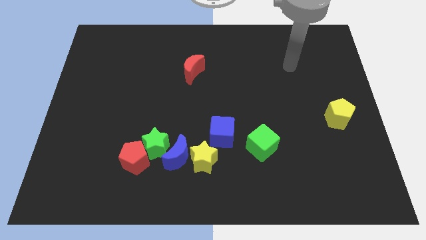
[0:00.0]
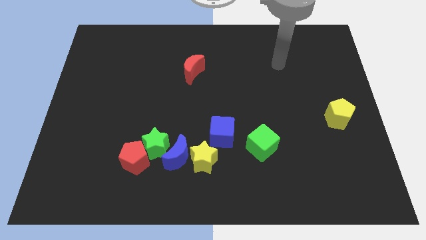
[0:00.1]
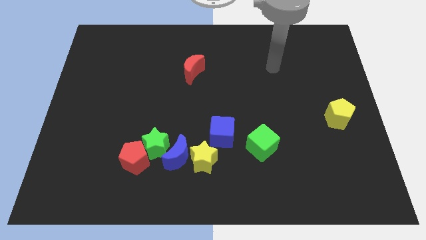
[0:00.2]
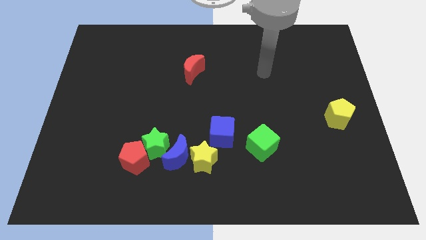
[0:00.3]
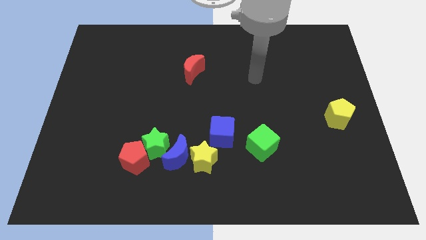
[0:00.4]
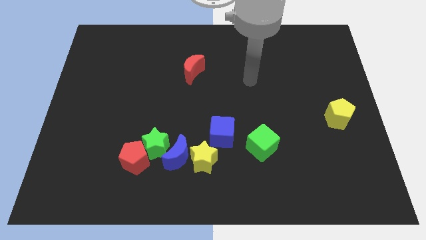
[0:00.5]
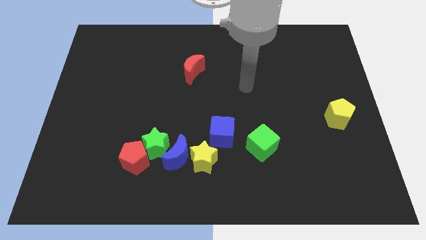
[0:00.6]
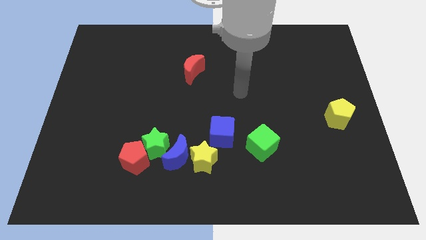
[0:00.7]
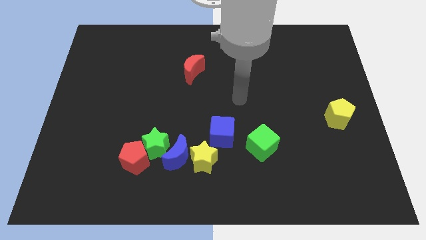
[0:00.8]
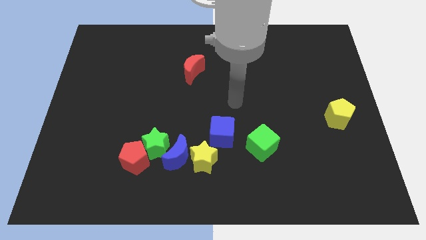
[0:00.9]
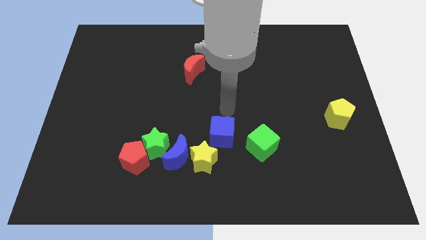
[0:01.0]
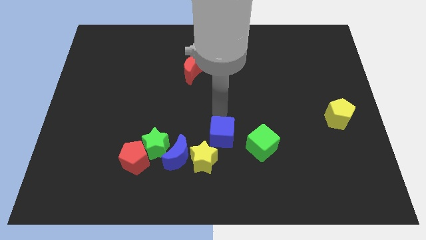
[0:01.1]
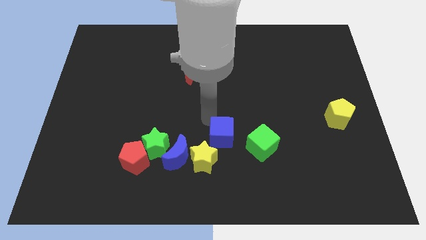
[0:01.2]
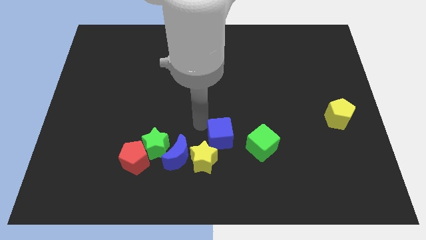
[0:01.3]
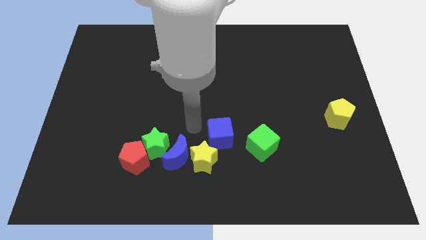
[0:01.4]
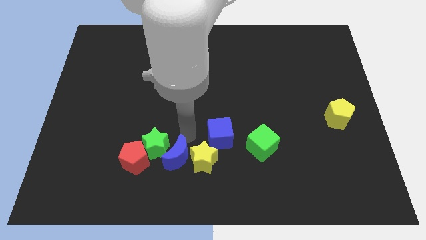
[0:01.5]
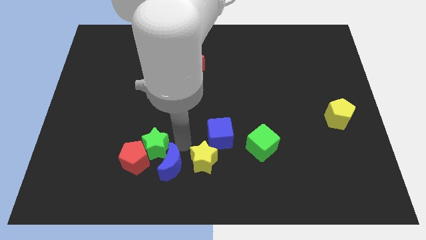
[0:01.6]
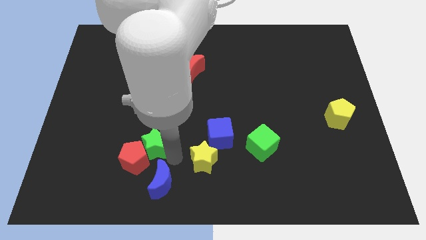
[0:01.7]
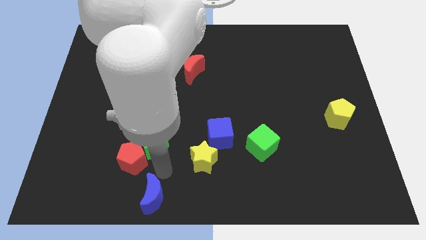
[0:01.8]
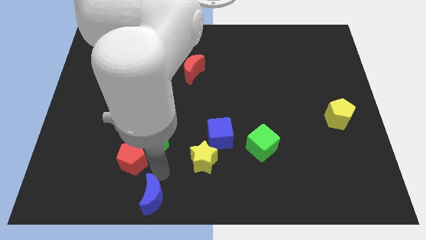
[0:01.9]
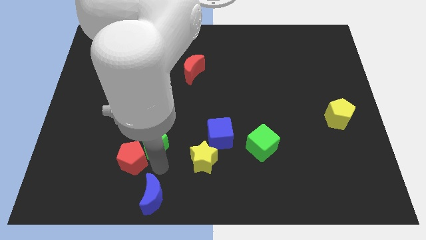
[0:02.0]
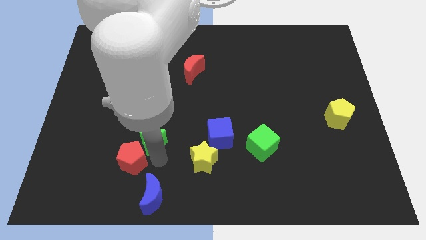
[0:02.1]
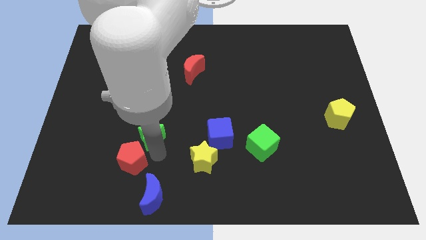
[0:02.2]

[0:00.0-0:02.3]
separate the green star from the blue moon and red pentagon

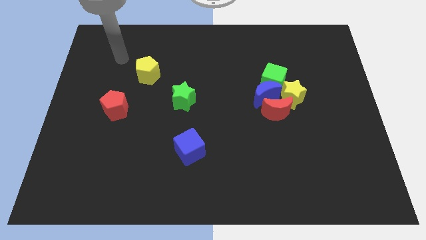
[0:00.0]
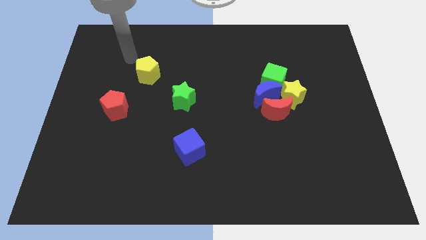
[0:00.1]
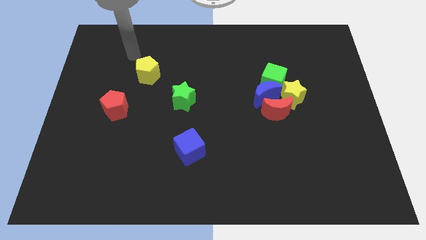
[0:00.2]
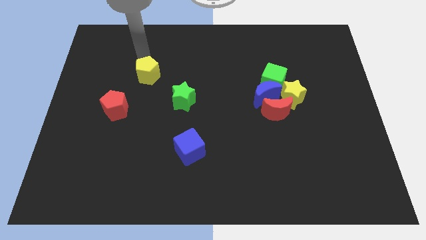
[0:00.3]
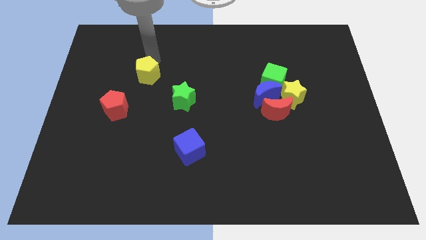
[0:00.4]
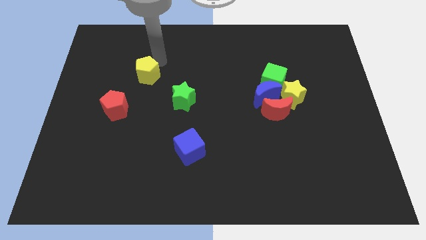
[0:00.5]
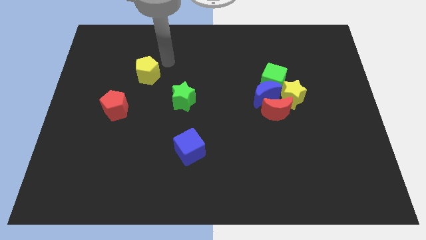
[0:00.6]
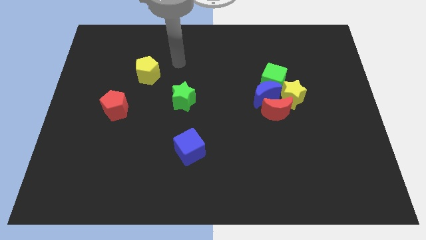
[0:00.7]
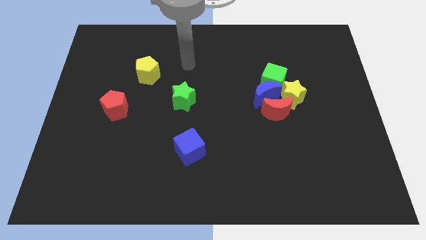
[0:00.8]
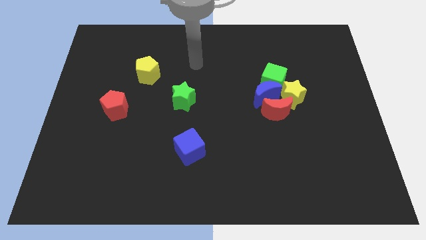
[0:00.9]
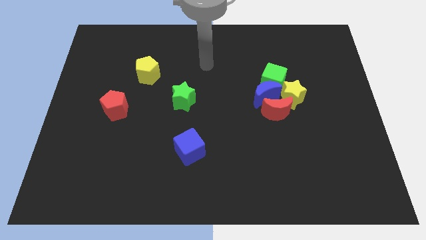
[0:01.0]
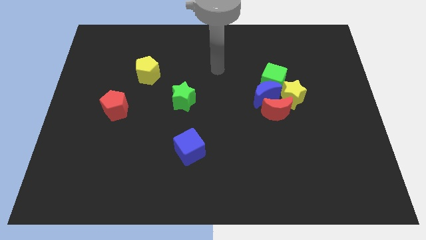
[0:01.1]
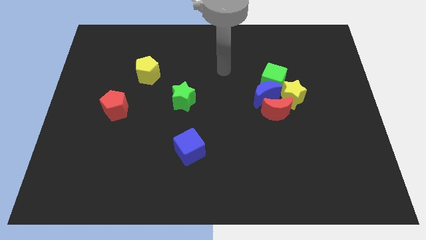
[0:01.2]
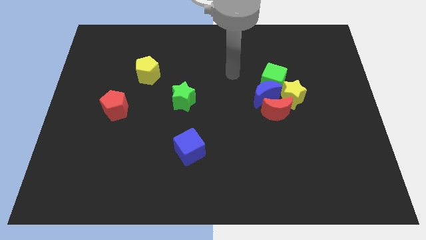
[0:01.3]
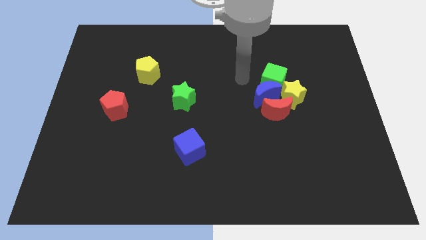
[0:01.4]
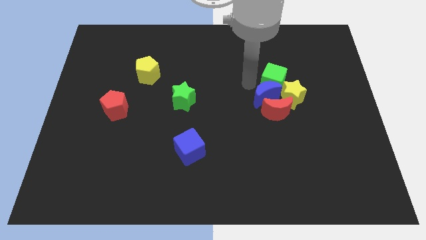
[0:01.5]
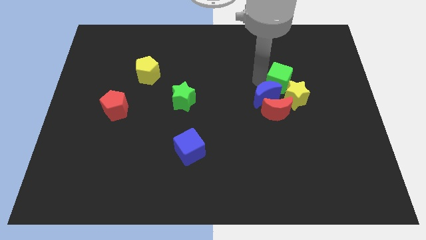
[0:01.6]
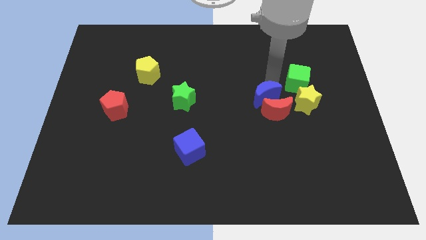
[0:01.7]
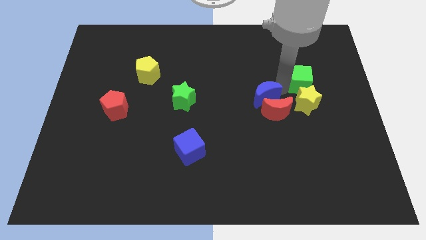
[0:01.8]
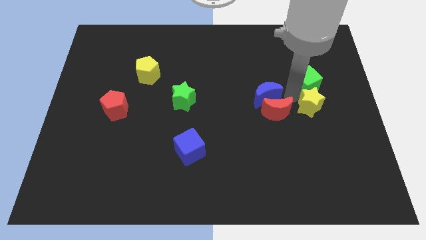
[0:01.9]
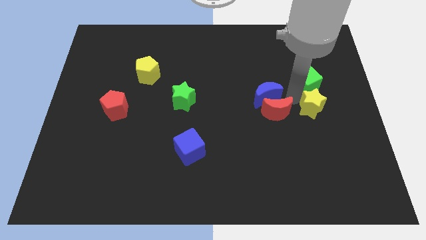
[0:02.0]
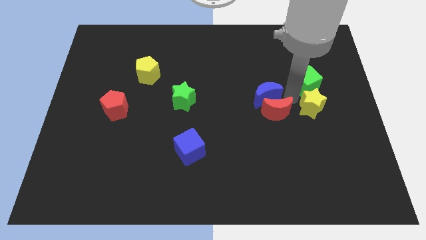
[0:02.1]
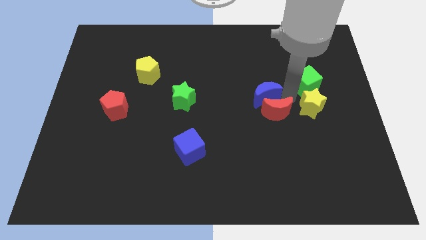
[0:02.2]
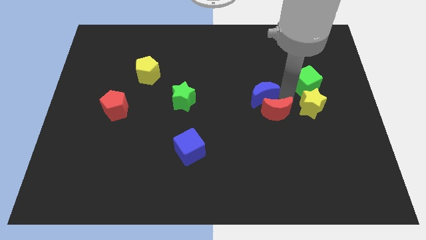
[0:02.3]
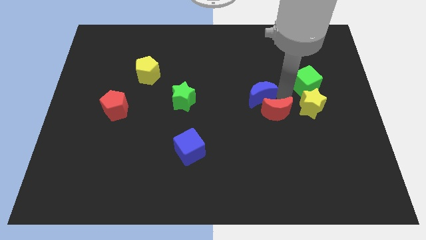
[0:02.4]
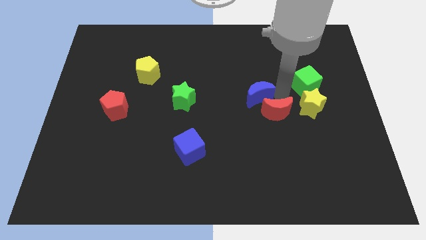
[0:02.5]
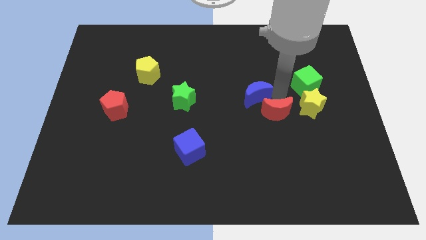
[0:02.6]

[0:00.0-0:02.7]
separate the blue moon from the clump

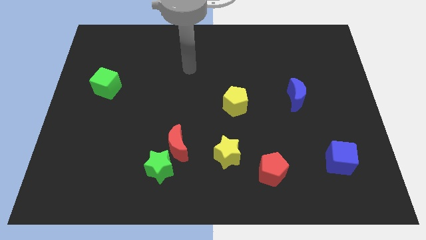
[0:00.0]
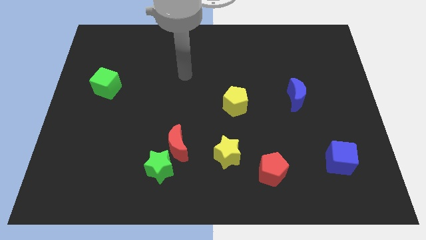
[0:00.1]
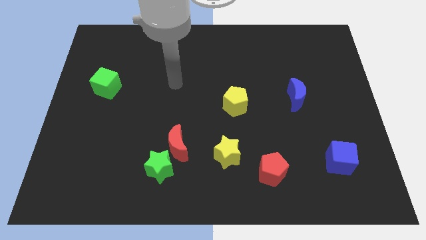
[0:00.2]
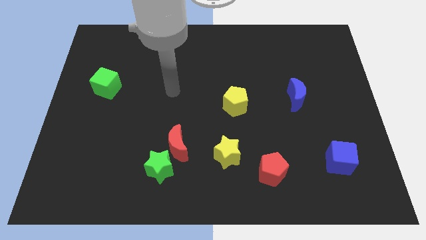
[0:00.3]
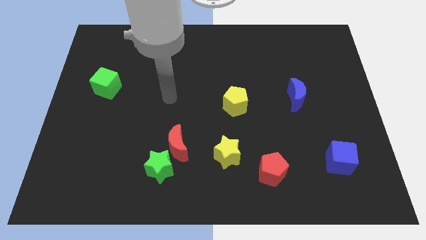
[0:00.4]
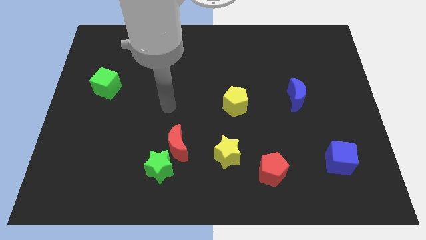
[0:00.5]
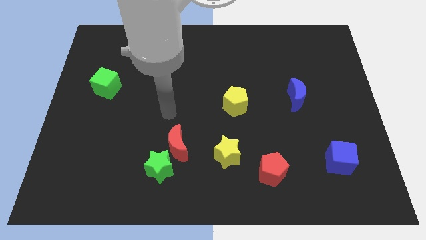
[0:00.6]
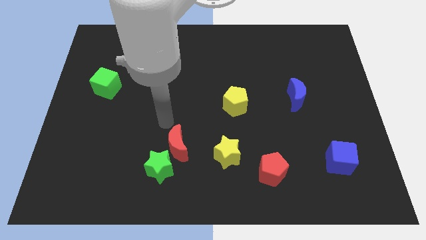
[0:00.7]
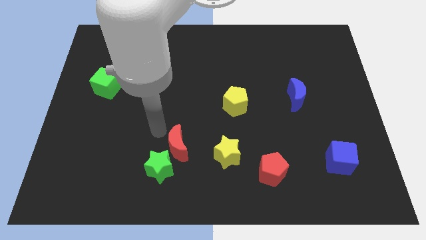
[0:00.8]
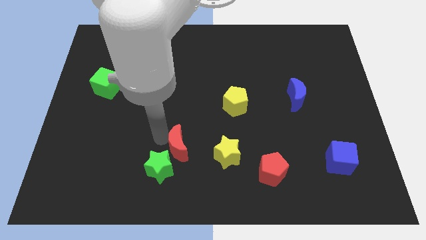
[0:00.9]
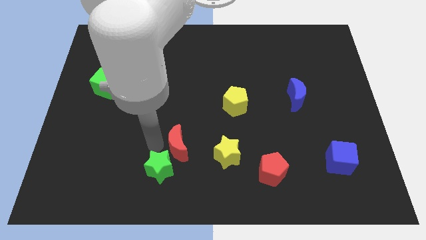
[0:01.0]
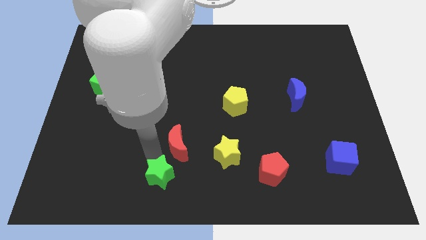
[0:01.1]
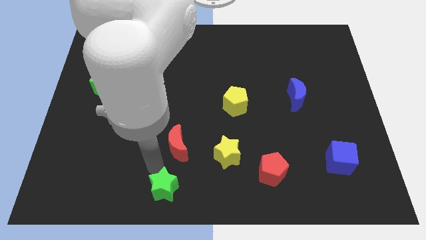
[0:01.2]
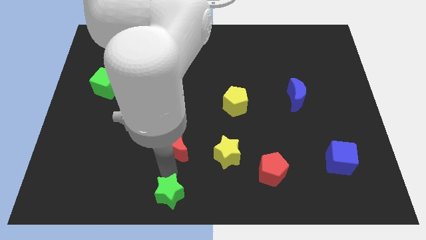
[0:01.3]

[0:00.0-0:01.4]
pull the red moon apart from the green star

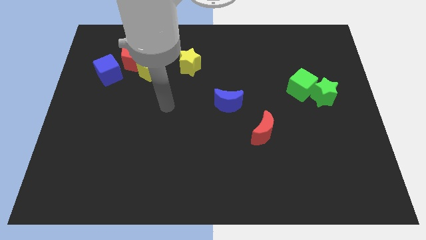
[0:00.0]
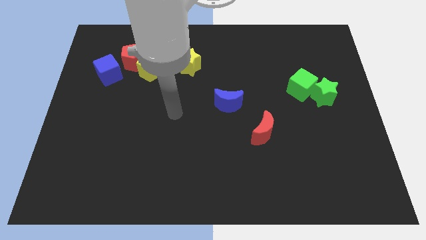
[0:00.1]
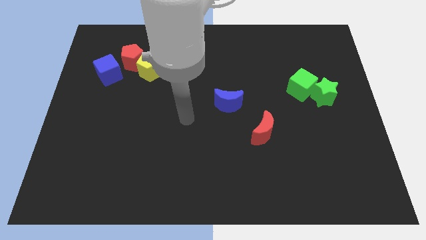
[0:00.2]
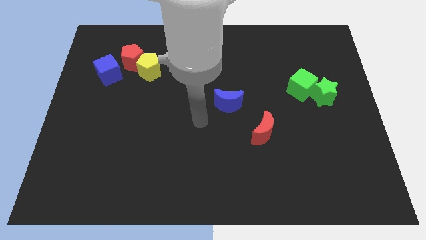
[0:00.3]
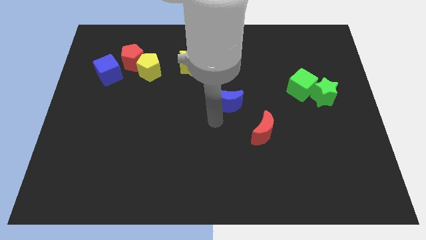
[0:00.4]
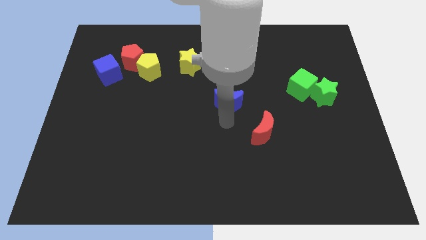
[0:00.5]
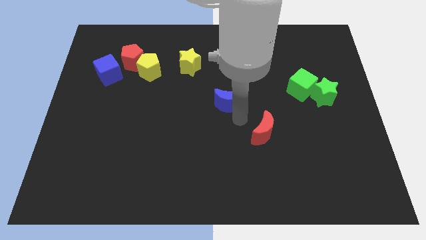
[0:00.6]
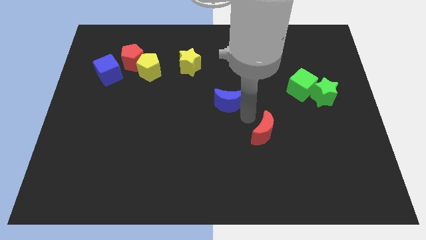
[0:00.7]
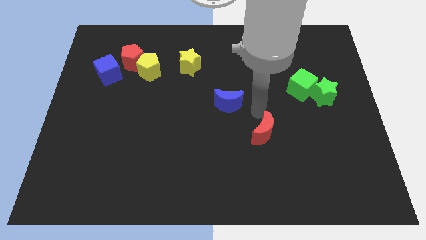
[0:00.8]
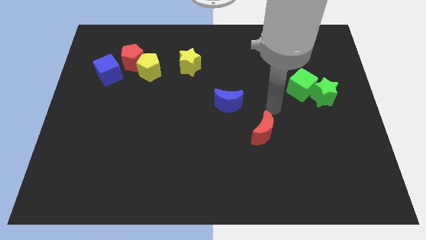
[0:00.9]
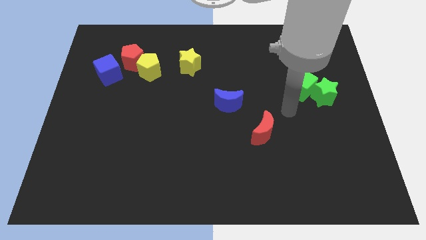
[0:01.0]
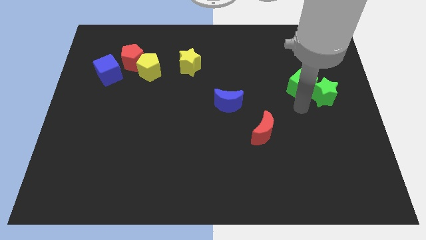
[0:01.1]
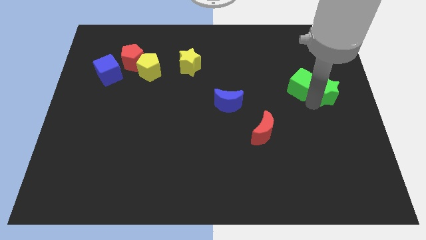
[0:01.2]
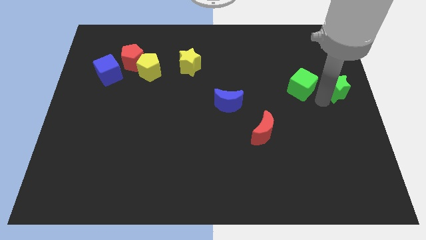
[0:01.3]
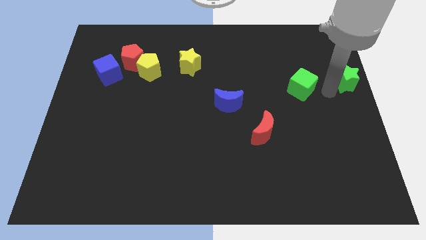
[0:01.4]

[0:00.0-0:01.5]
move the green cube away from the green star

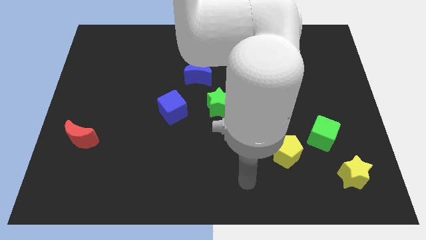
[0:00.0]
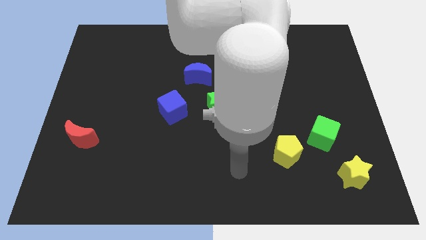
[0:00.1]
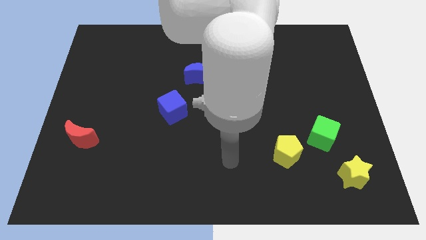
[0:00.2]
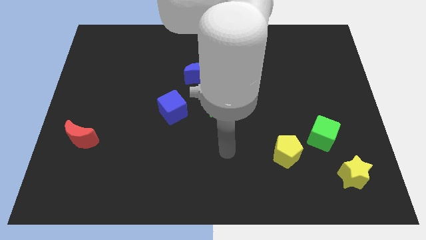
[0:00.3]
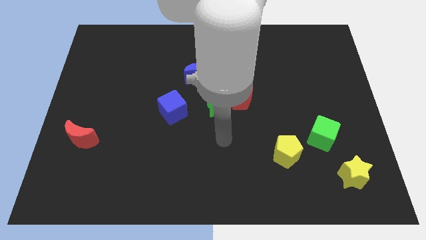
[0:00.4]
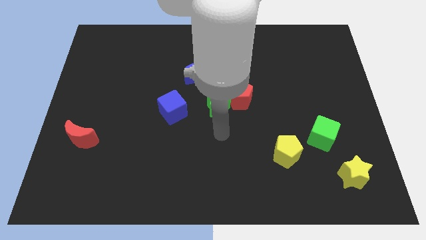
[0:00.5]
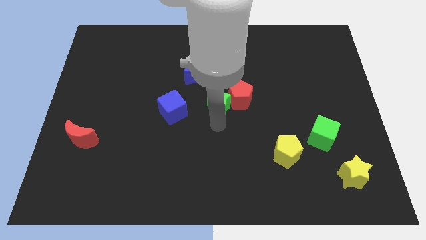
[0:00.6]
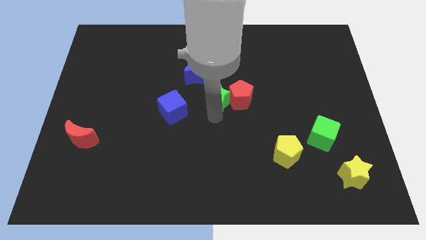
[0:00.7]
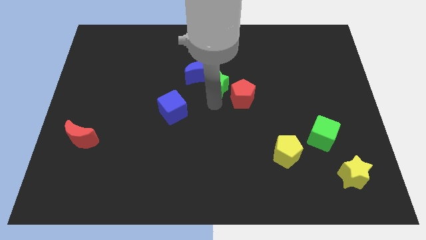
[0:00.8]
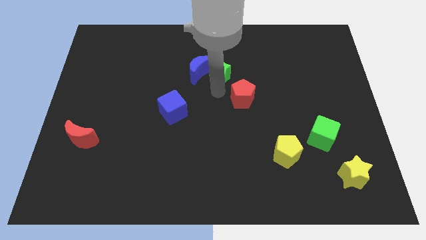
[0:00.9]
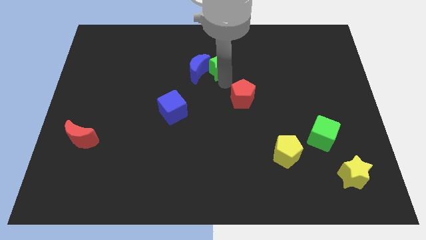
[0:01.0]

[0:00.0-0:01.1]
move the red pentagon away from the green star

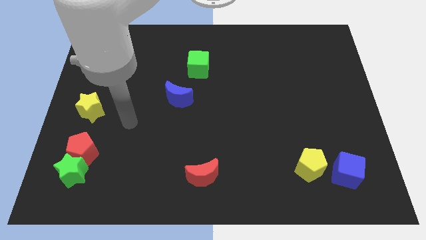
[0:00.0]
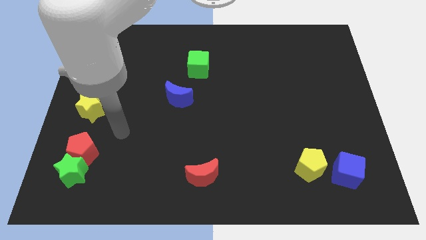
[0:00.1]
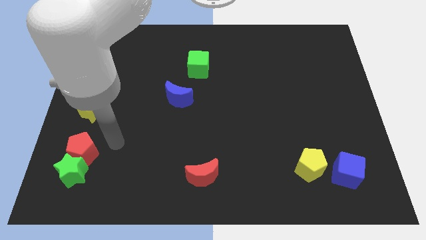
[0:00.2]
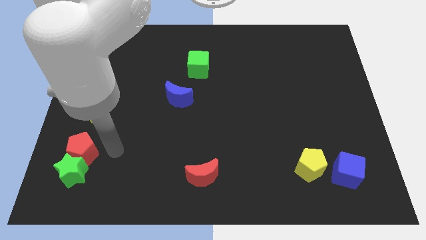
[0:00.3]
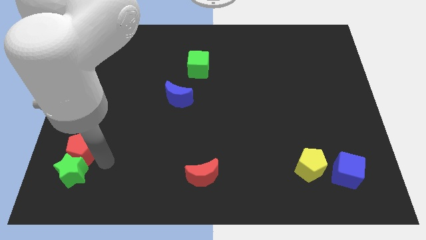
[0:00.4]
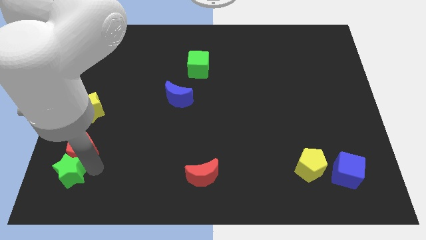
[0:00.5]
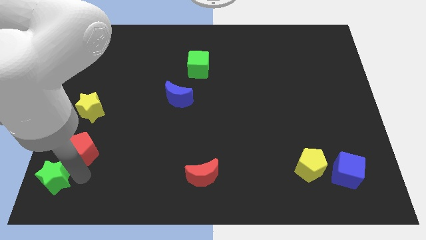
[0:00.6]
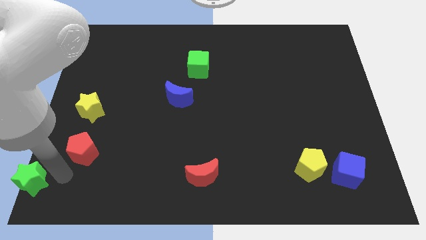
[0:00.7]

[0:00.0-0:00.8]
pull the red pentagon apart from the green star
